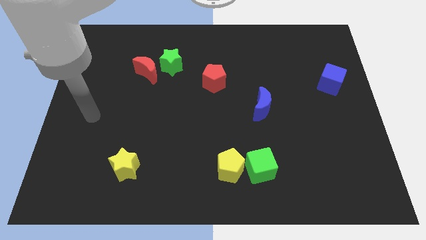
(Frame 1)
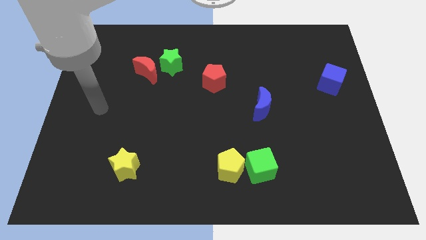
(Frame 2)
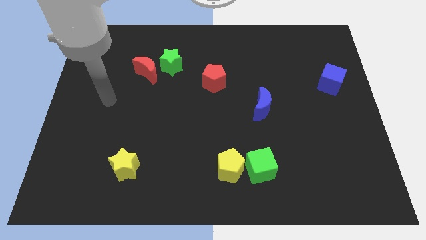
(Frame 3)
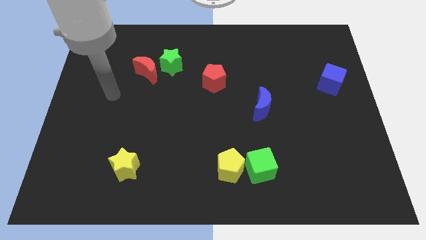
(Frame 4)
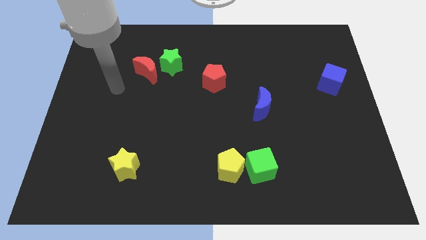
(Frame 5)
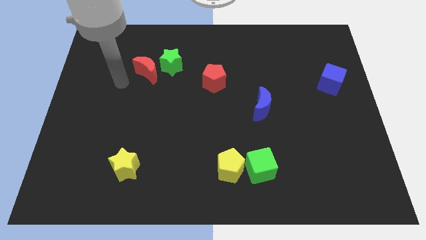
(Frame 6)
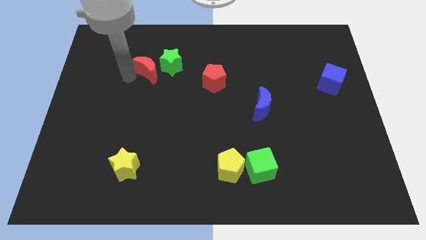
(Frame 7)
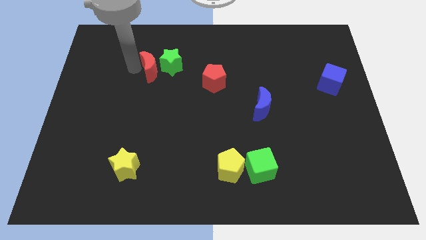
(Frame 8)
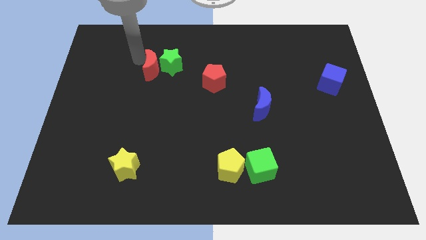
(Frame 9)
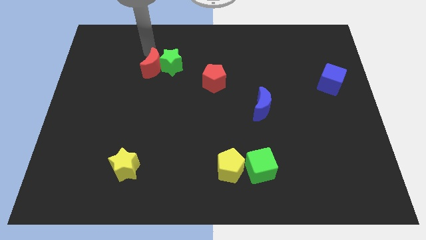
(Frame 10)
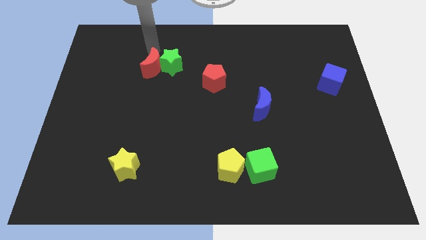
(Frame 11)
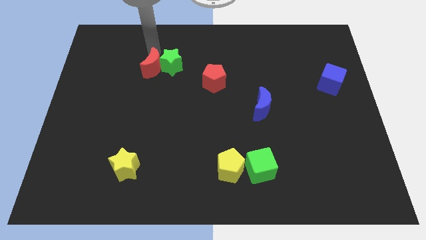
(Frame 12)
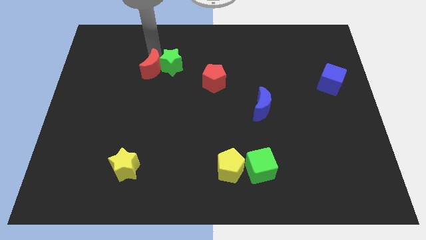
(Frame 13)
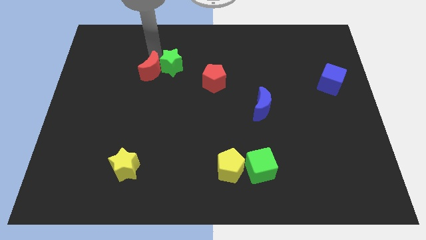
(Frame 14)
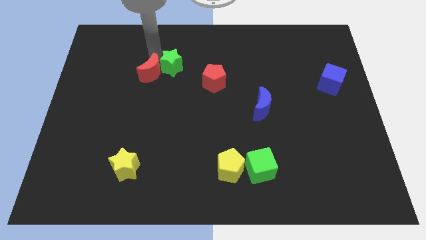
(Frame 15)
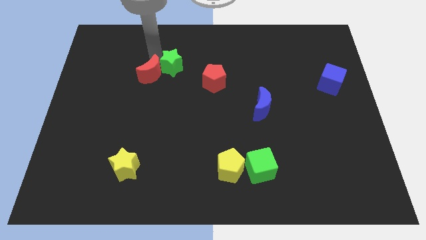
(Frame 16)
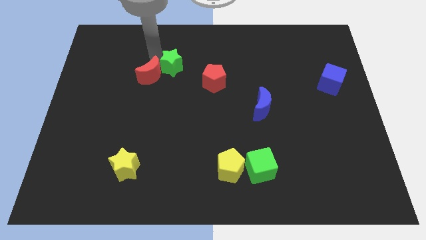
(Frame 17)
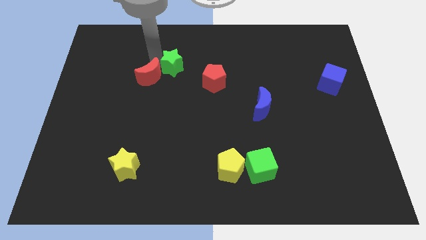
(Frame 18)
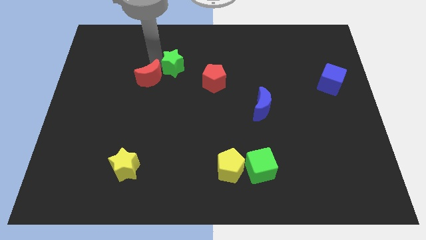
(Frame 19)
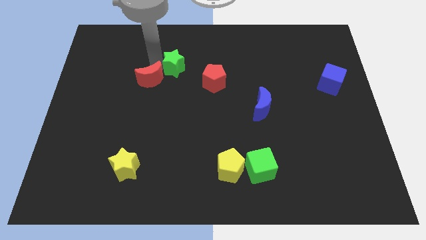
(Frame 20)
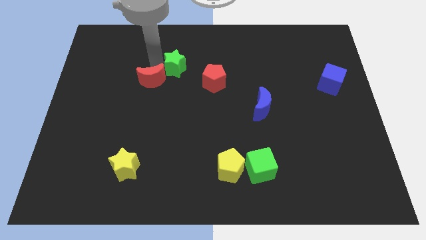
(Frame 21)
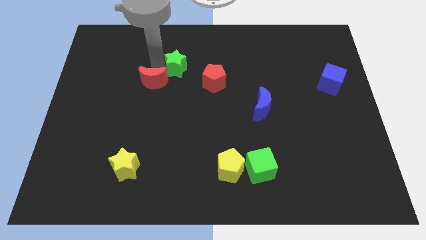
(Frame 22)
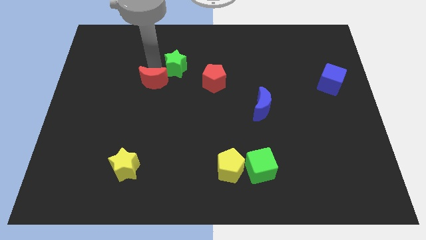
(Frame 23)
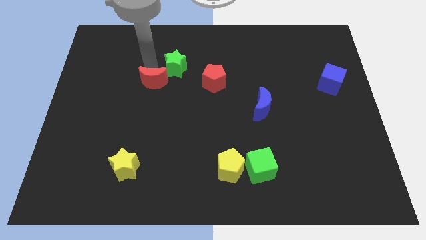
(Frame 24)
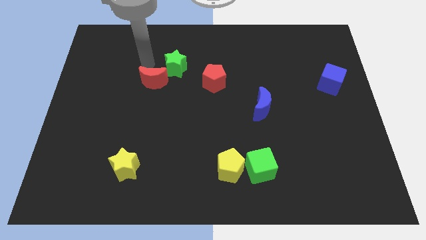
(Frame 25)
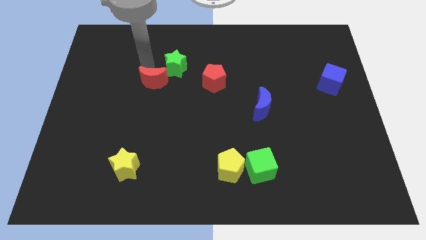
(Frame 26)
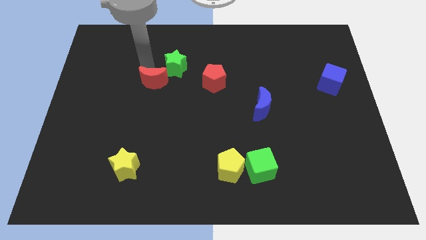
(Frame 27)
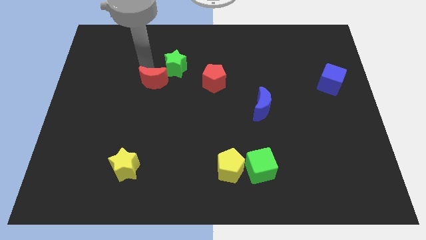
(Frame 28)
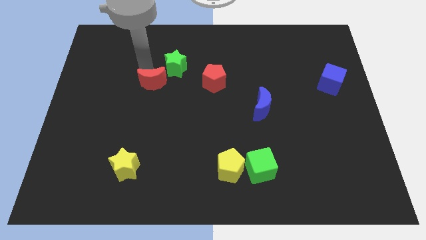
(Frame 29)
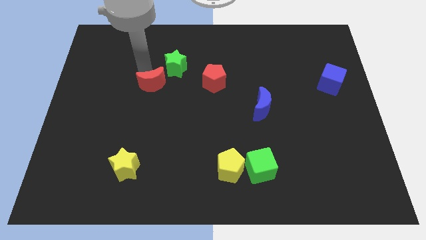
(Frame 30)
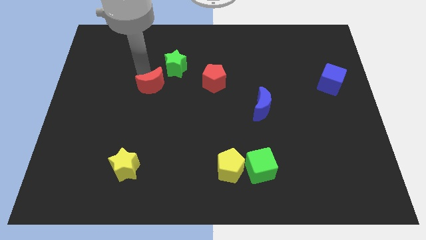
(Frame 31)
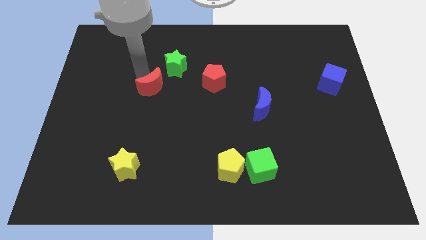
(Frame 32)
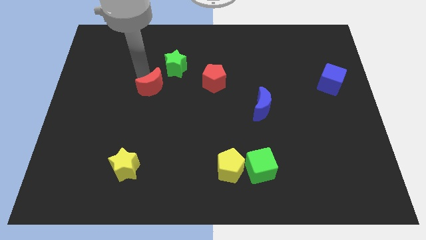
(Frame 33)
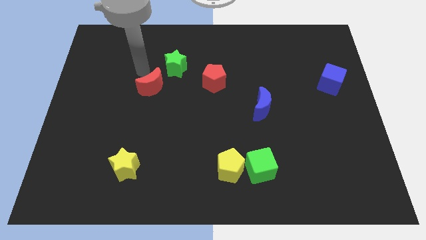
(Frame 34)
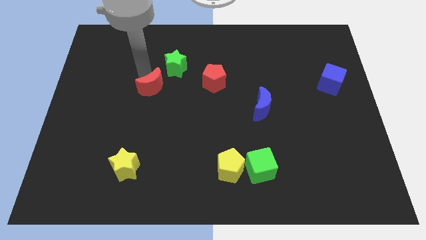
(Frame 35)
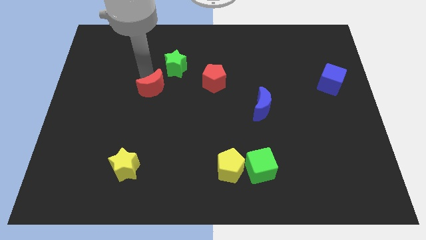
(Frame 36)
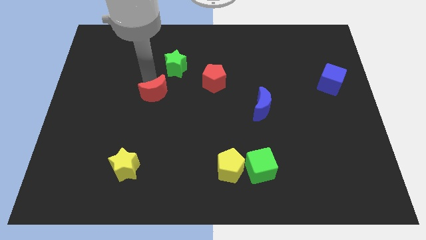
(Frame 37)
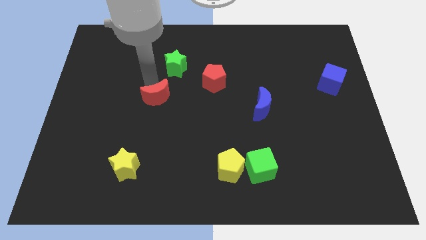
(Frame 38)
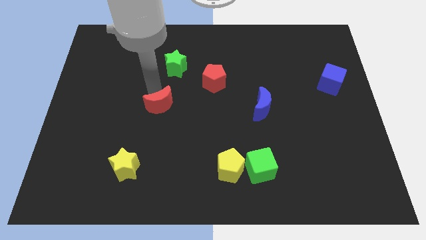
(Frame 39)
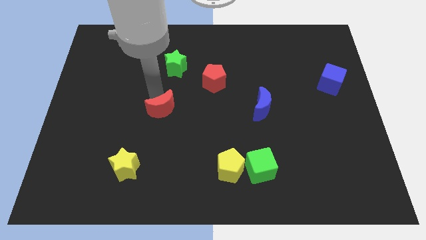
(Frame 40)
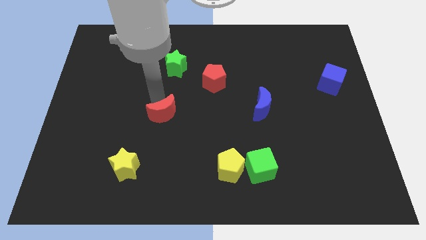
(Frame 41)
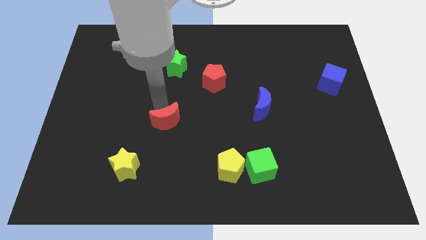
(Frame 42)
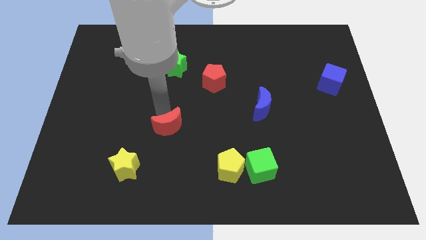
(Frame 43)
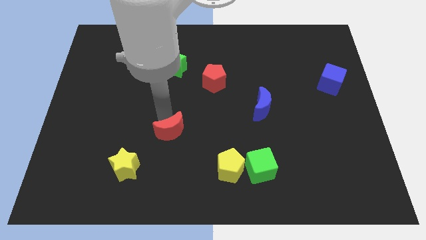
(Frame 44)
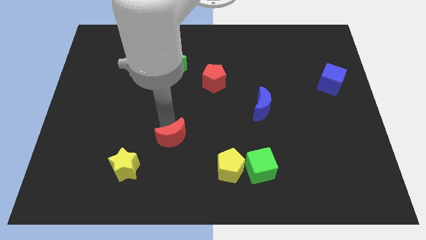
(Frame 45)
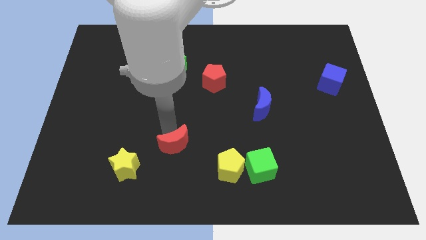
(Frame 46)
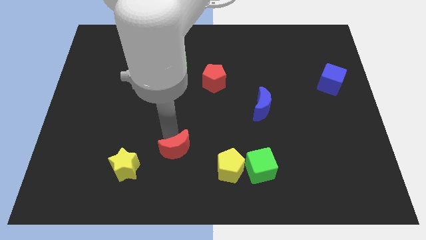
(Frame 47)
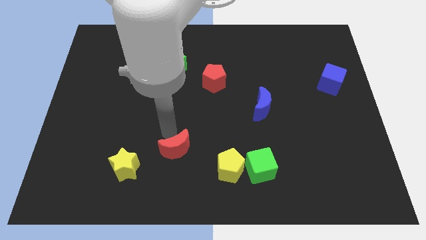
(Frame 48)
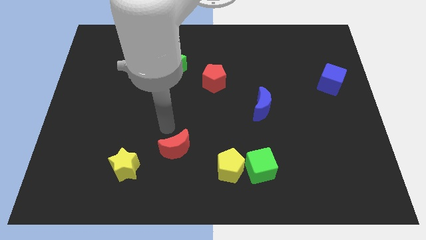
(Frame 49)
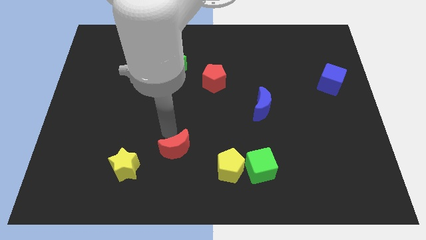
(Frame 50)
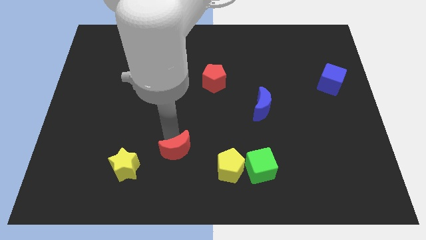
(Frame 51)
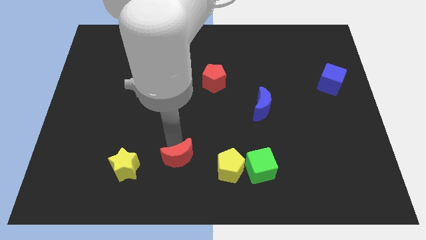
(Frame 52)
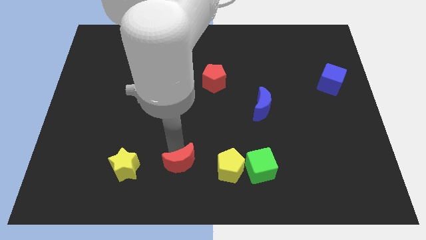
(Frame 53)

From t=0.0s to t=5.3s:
slide the red moon to the bottom side
